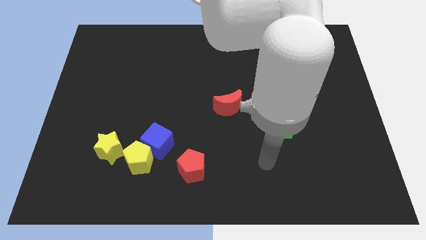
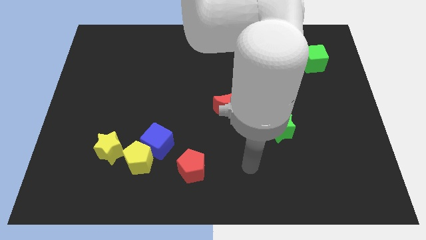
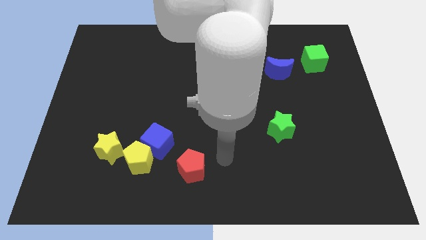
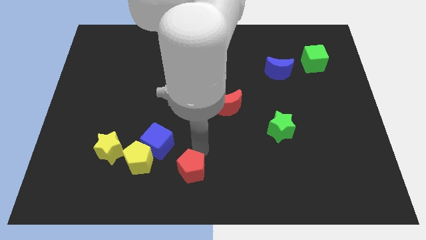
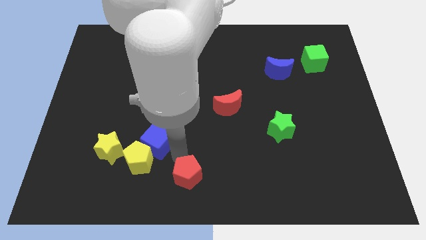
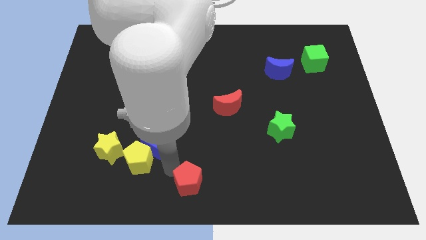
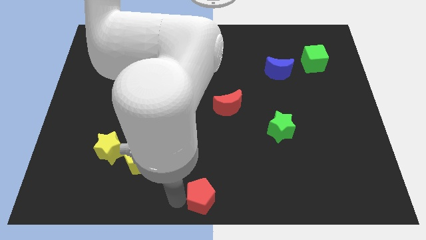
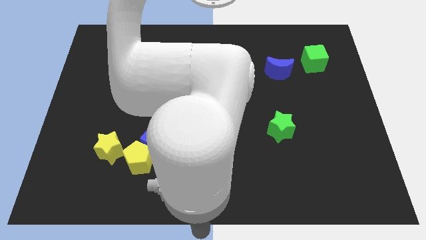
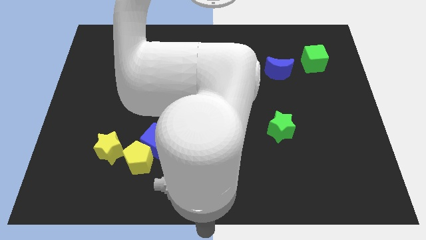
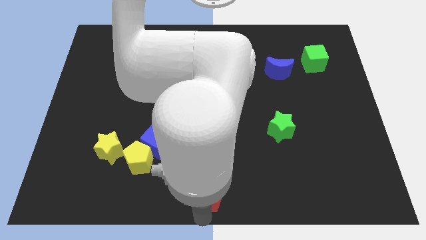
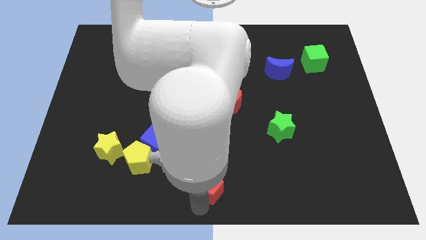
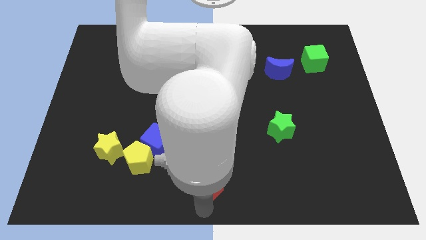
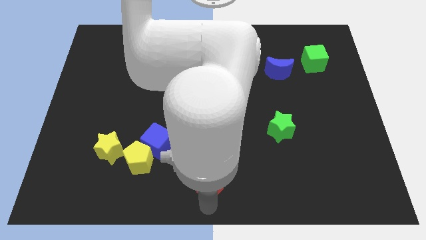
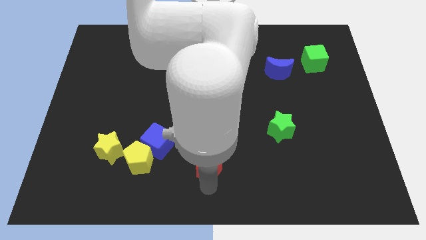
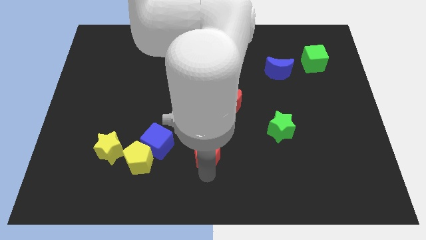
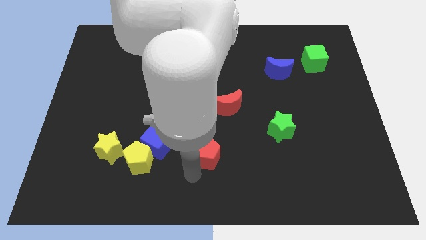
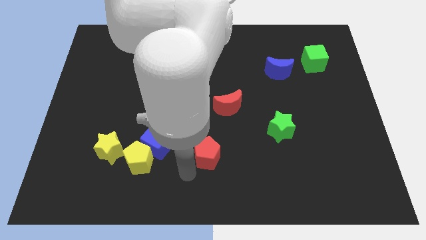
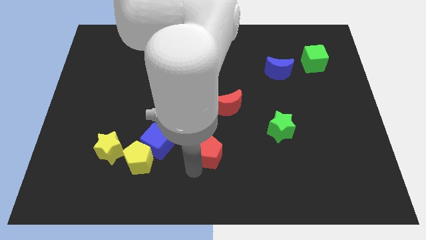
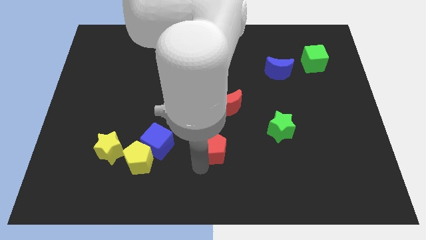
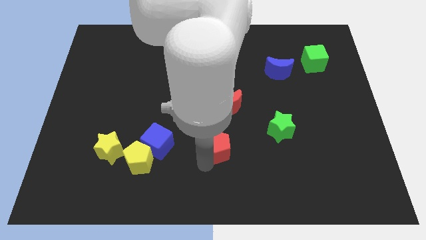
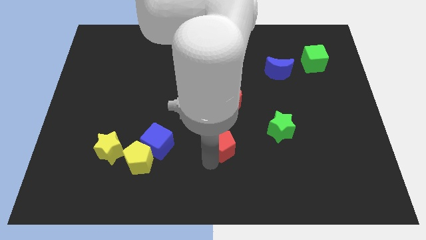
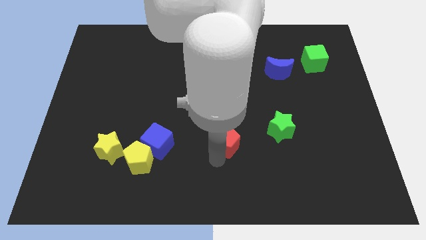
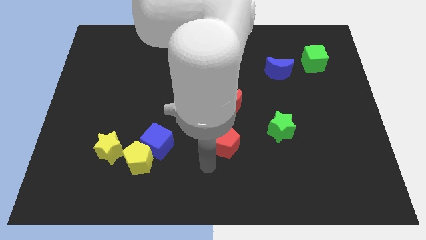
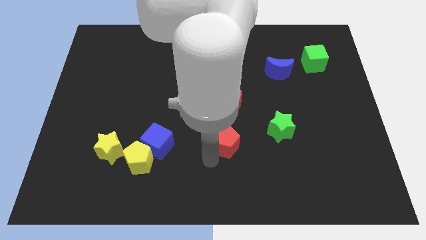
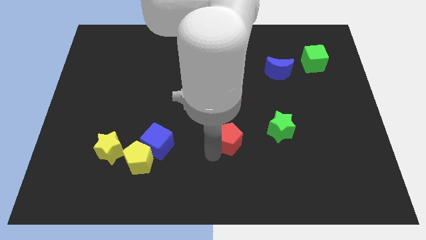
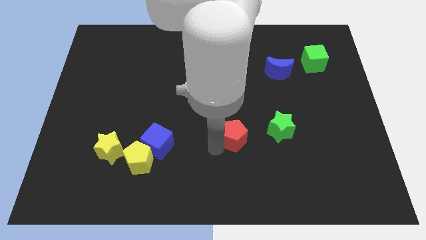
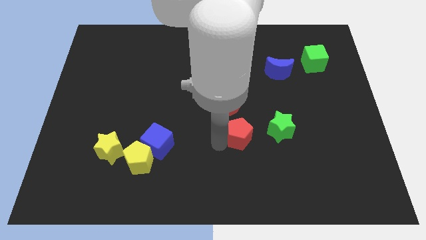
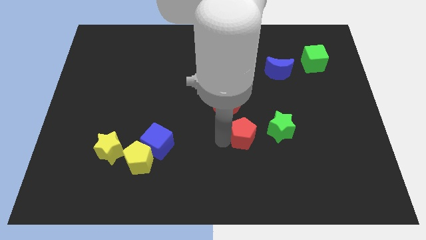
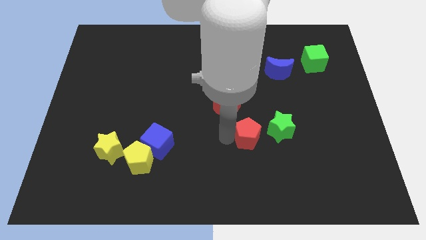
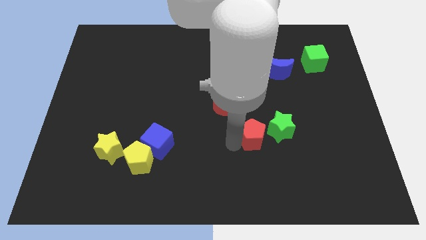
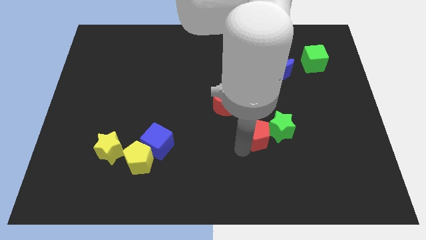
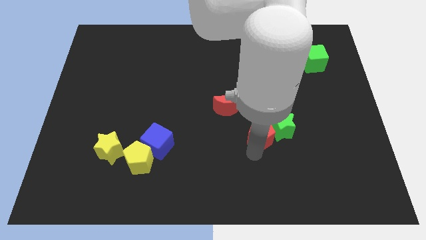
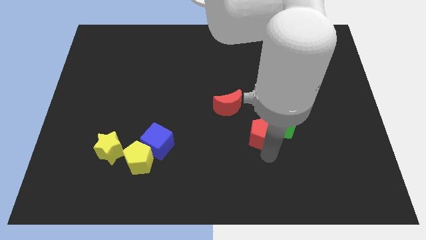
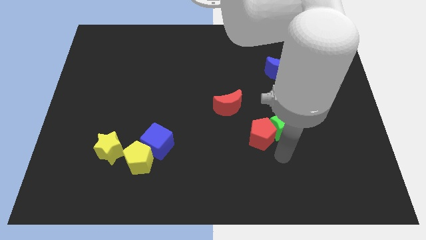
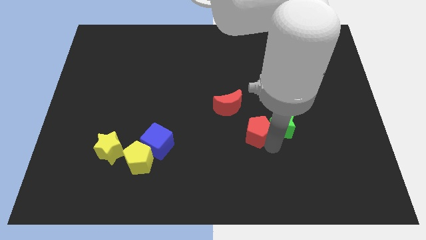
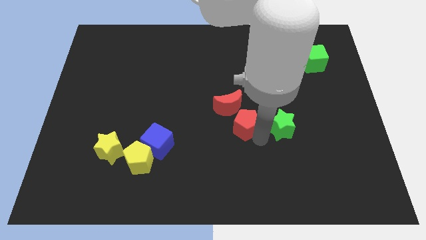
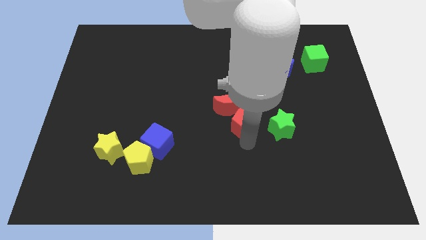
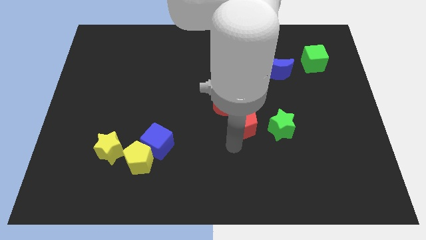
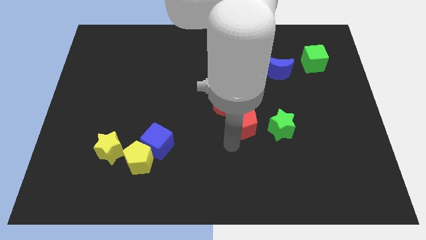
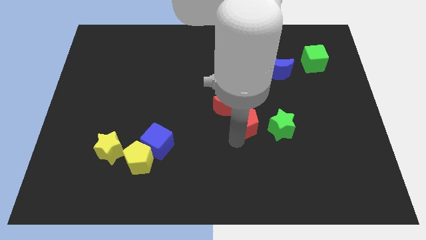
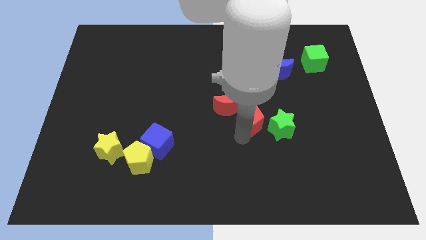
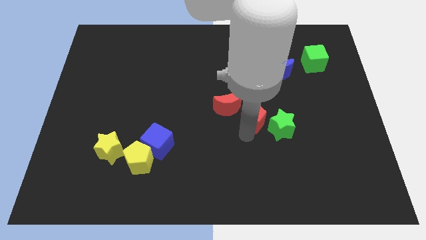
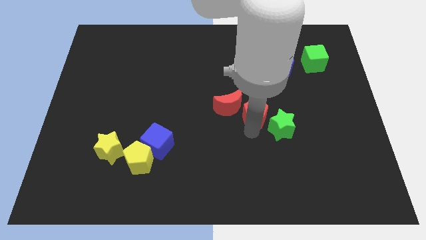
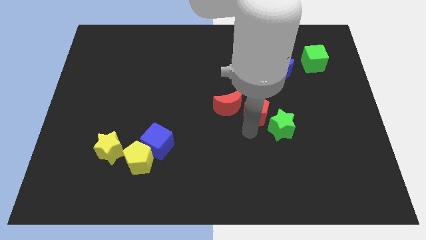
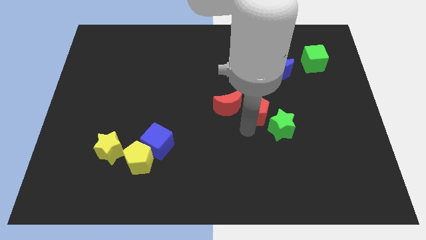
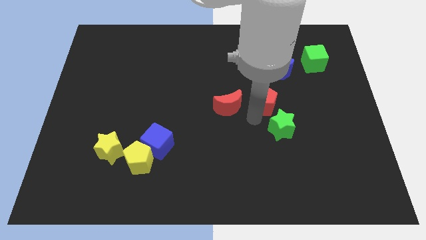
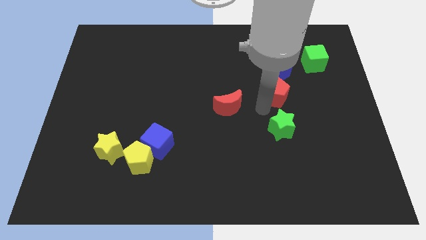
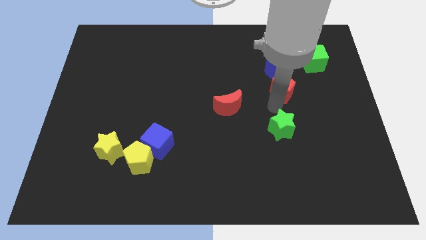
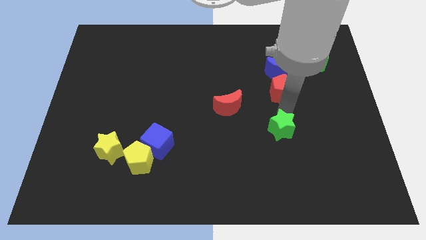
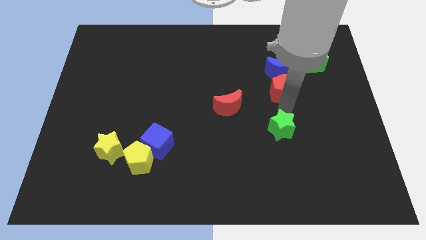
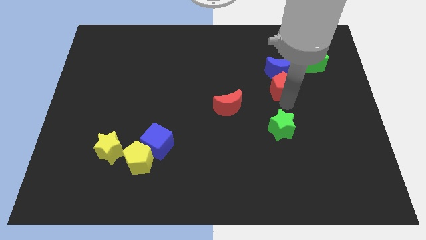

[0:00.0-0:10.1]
put the red pentagon towards the blue moon
